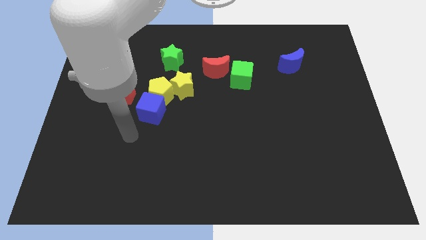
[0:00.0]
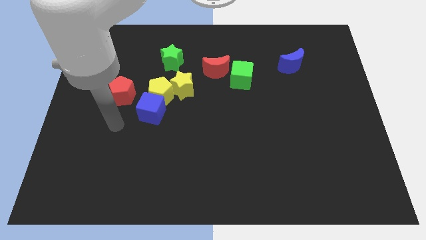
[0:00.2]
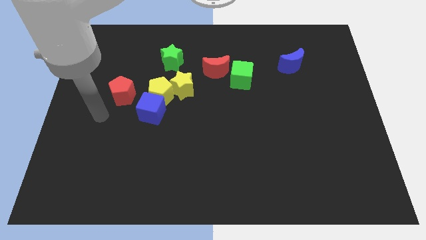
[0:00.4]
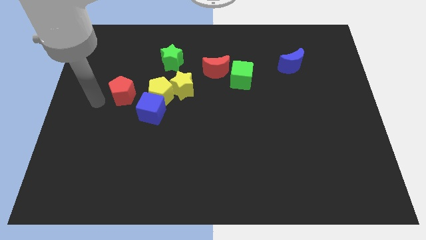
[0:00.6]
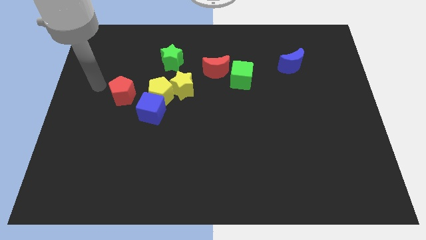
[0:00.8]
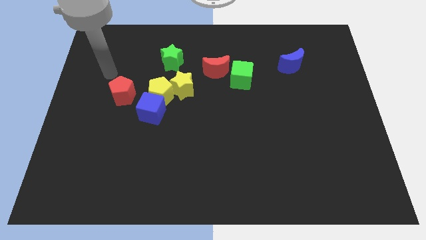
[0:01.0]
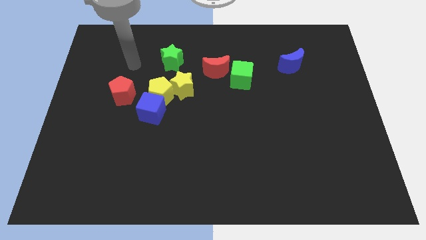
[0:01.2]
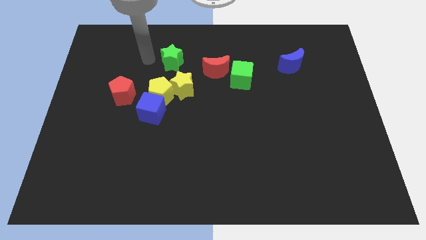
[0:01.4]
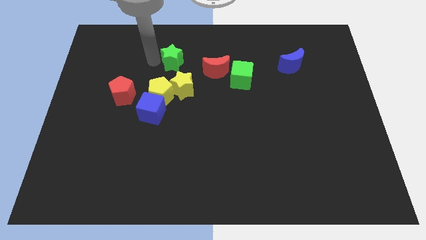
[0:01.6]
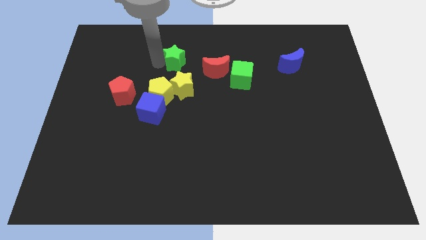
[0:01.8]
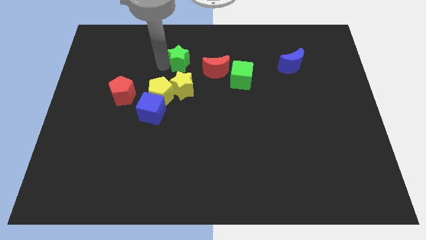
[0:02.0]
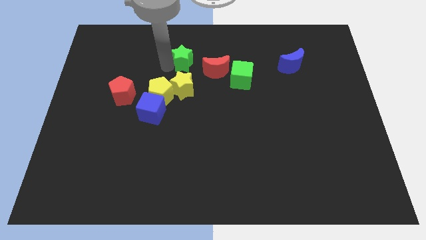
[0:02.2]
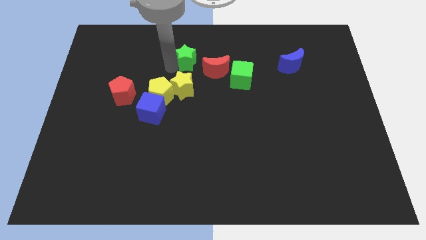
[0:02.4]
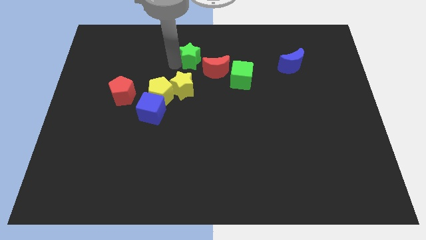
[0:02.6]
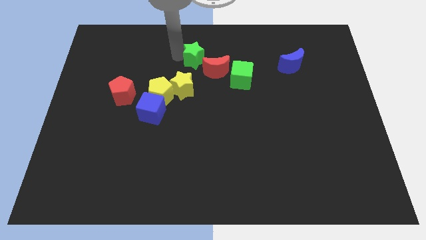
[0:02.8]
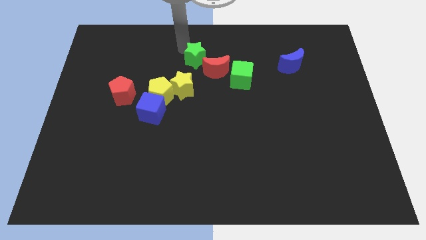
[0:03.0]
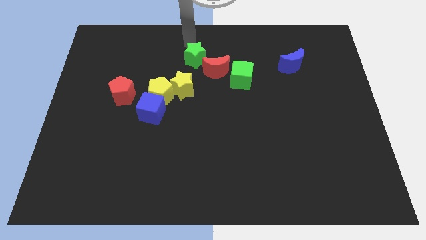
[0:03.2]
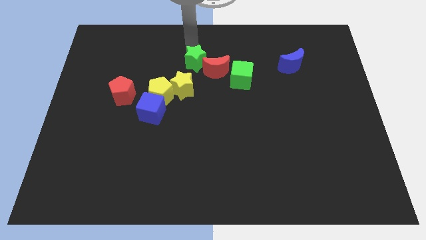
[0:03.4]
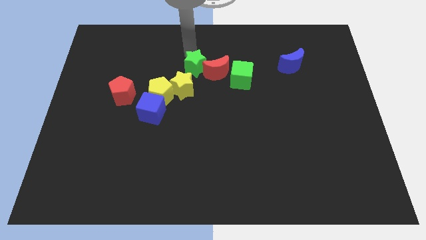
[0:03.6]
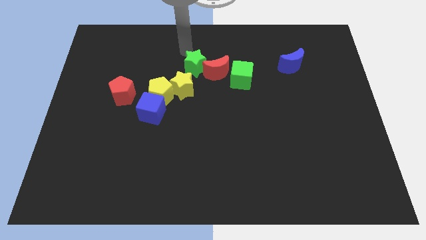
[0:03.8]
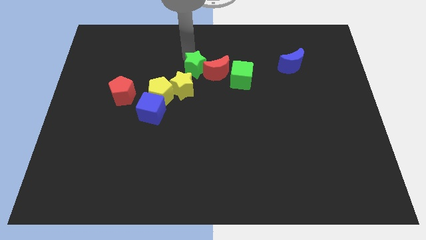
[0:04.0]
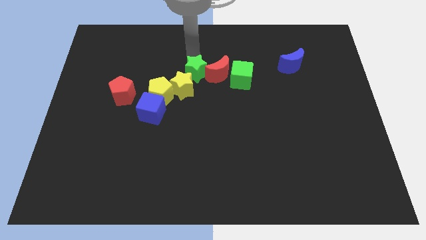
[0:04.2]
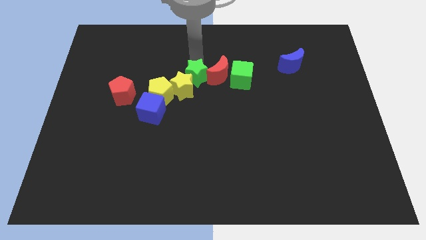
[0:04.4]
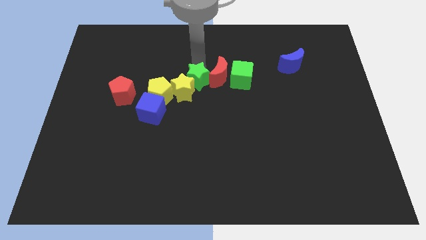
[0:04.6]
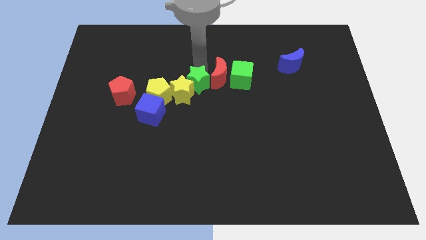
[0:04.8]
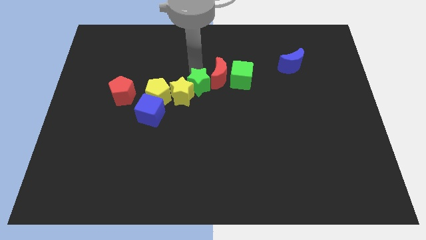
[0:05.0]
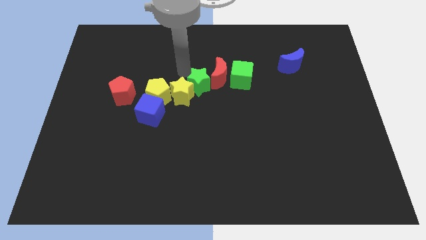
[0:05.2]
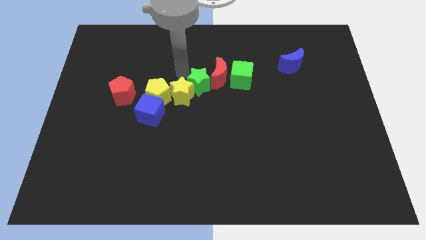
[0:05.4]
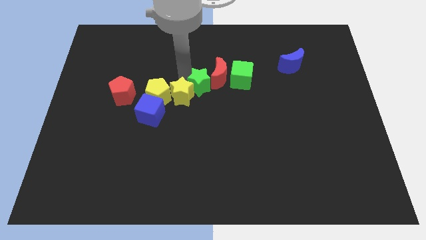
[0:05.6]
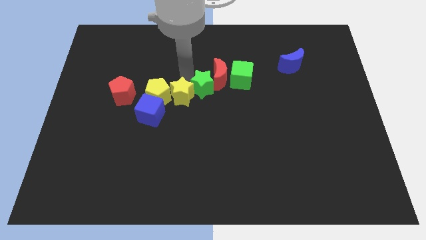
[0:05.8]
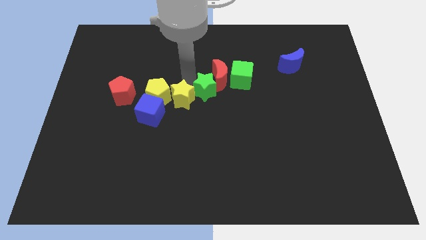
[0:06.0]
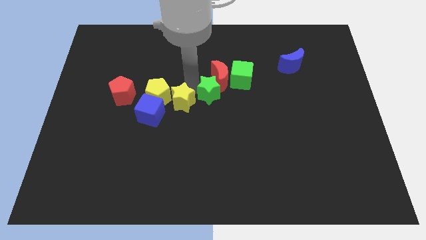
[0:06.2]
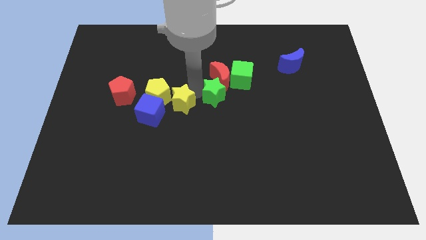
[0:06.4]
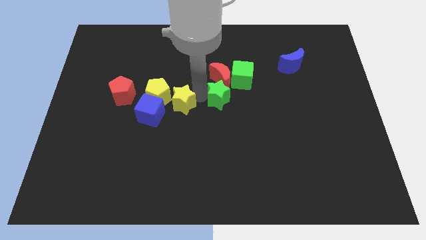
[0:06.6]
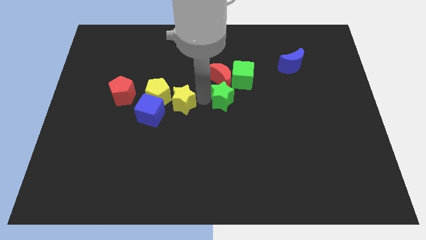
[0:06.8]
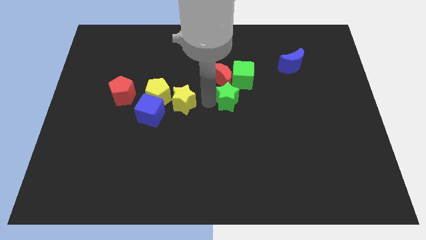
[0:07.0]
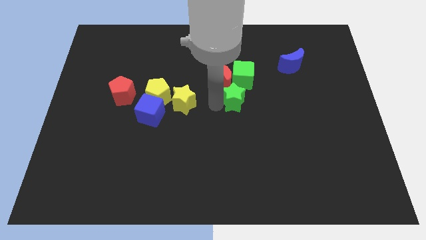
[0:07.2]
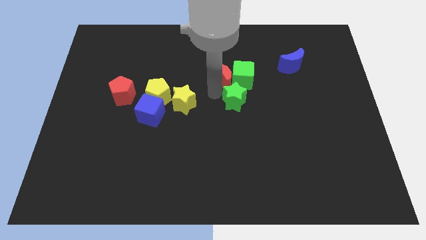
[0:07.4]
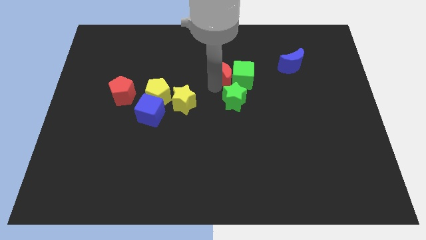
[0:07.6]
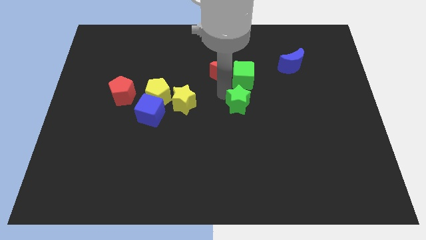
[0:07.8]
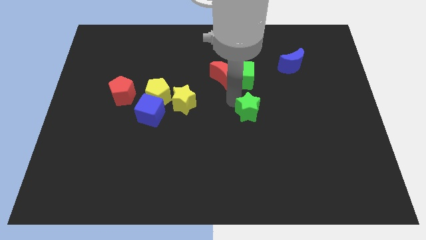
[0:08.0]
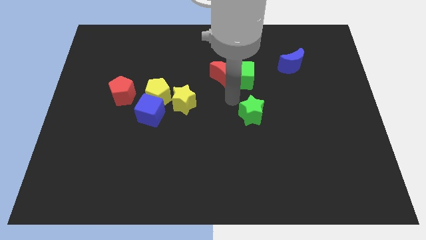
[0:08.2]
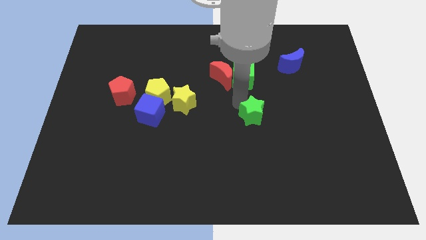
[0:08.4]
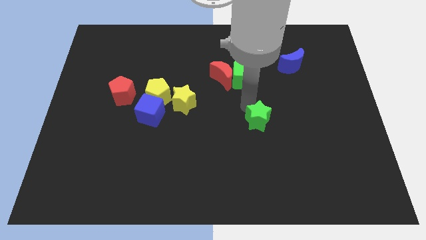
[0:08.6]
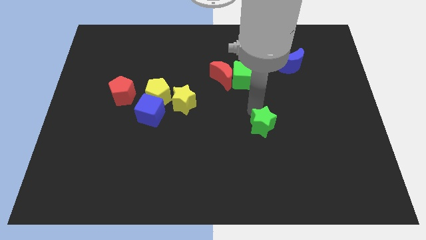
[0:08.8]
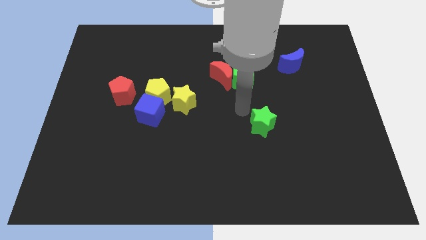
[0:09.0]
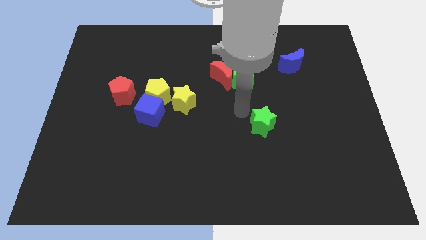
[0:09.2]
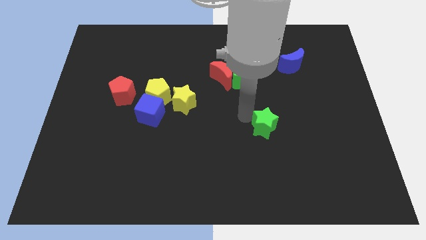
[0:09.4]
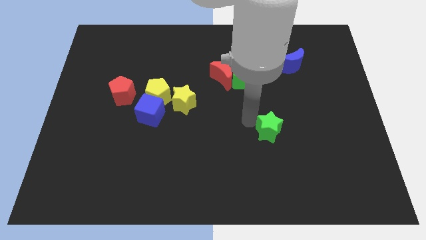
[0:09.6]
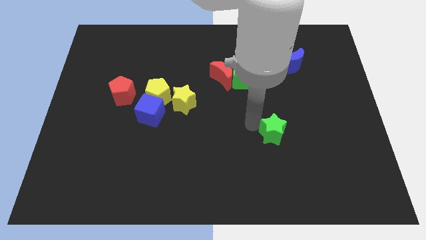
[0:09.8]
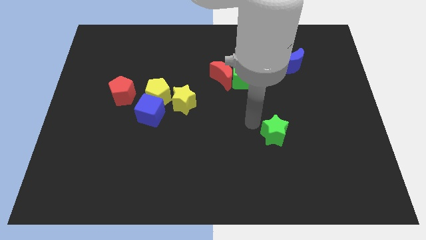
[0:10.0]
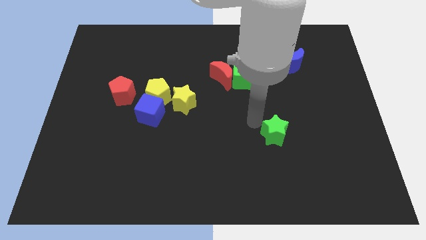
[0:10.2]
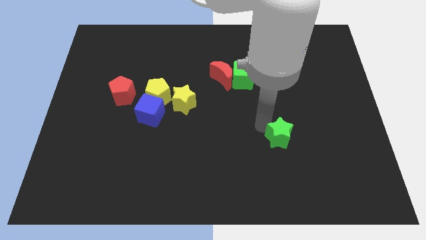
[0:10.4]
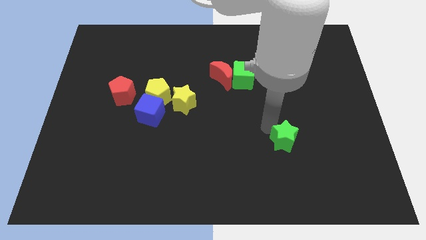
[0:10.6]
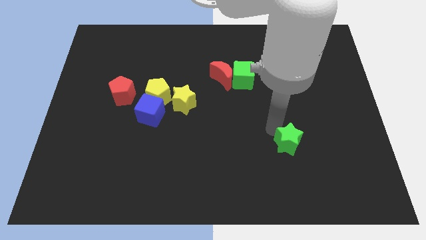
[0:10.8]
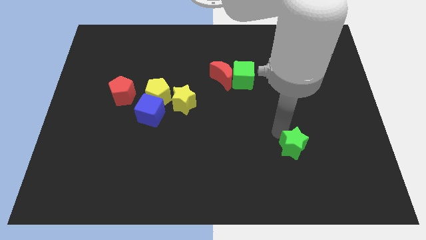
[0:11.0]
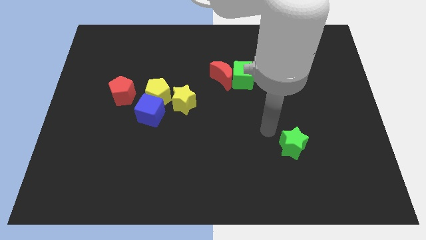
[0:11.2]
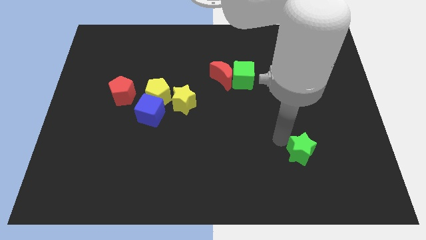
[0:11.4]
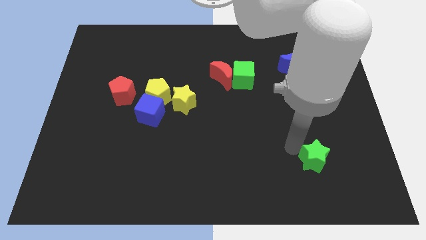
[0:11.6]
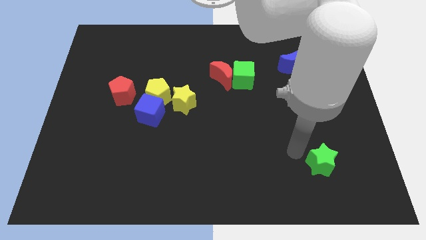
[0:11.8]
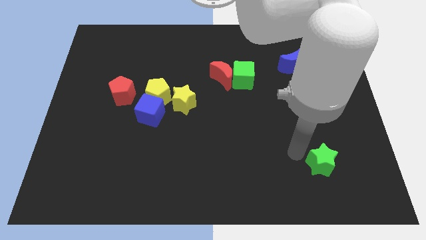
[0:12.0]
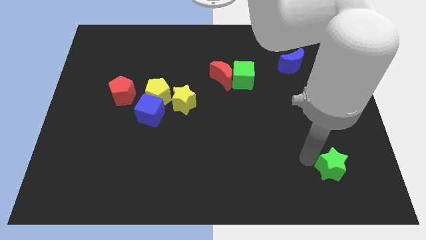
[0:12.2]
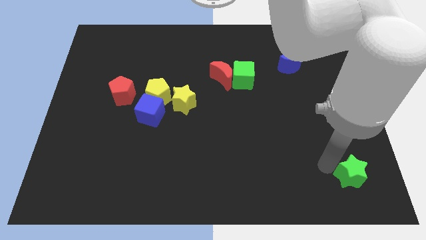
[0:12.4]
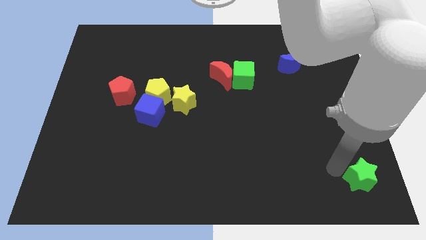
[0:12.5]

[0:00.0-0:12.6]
put the green star to the bottom right corner

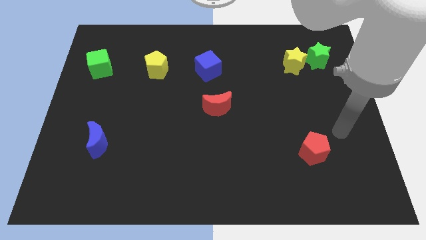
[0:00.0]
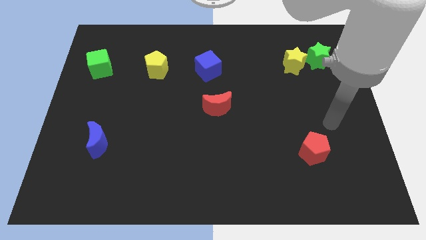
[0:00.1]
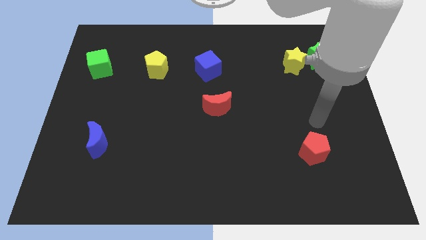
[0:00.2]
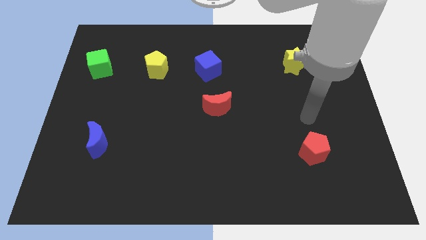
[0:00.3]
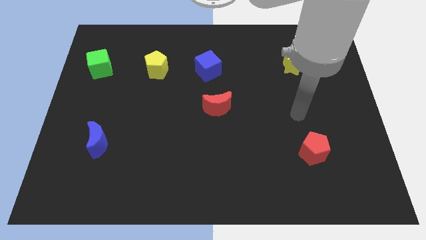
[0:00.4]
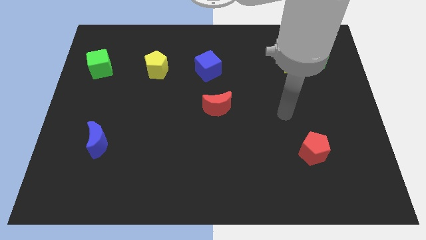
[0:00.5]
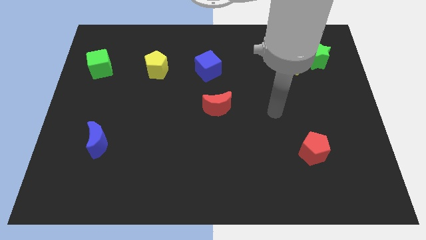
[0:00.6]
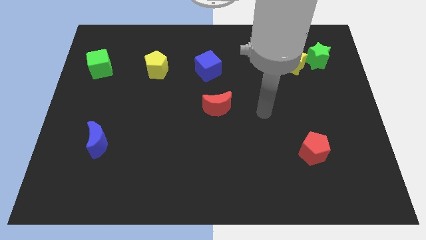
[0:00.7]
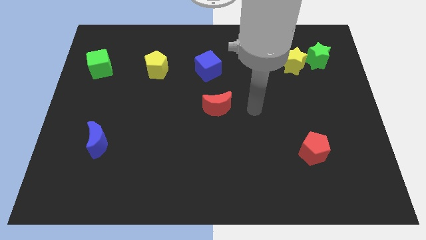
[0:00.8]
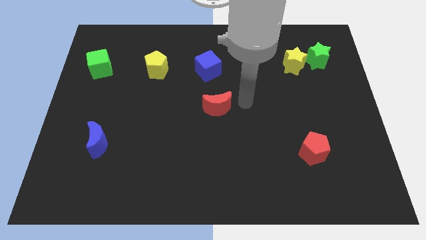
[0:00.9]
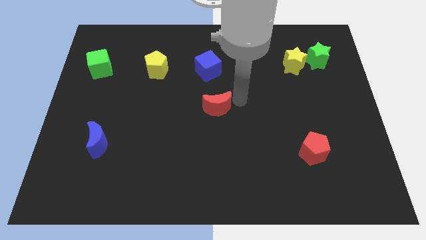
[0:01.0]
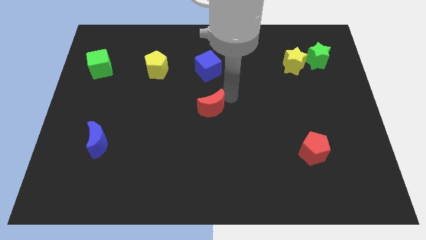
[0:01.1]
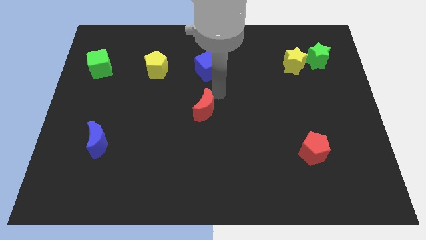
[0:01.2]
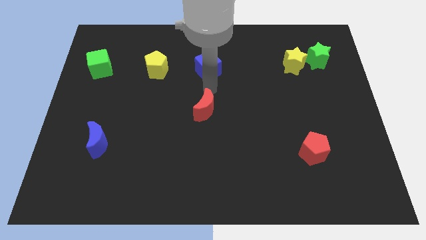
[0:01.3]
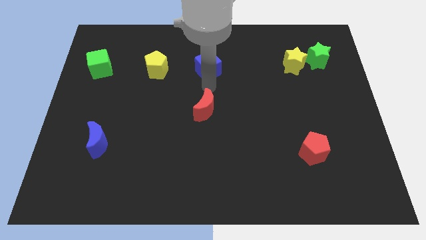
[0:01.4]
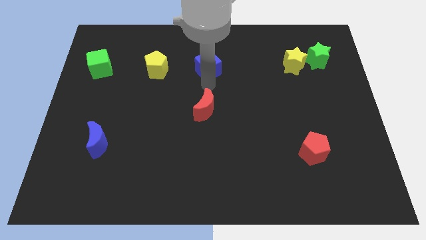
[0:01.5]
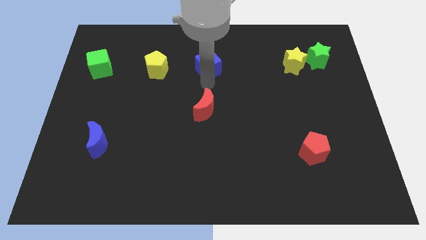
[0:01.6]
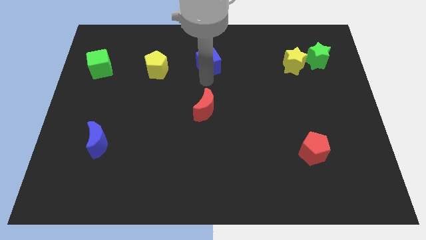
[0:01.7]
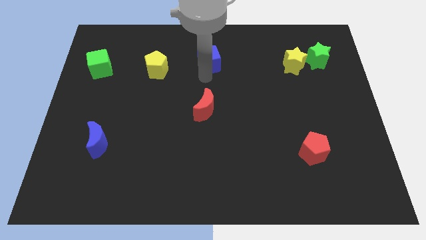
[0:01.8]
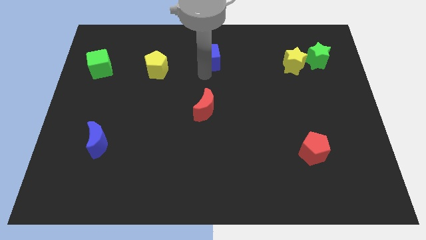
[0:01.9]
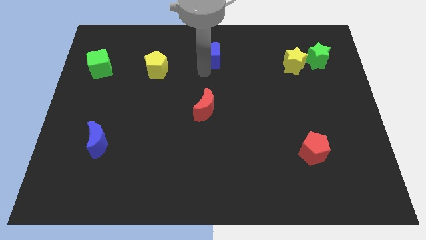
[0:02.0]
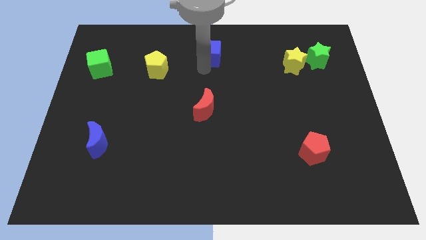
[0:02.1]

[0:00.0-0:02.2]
slide the blue cube to the top
